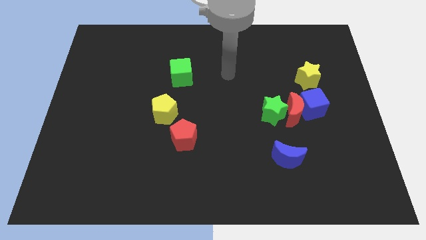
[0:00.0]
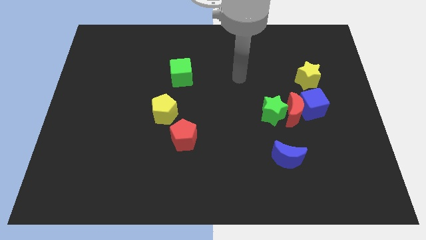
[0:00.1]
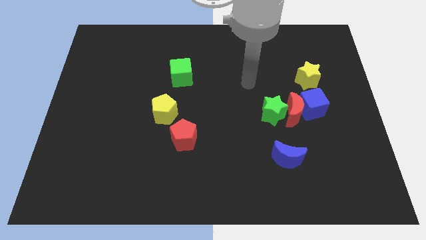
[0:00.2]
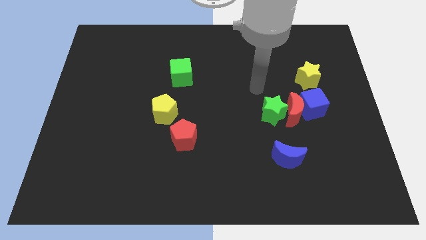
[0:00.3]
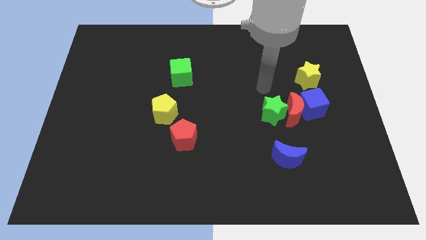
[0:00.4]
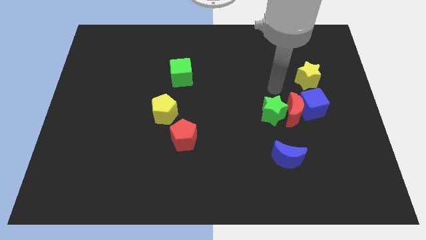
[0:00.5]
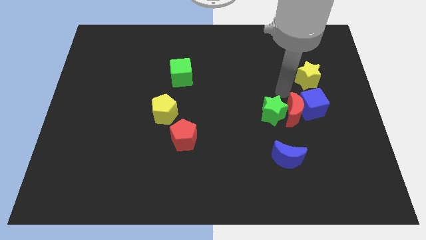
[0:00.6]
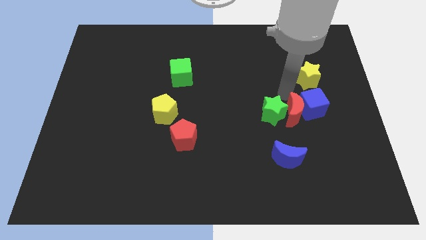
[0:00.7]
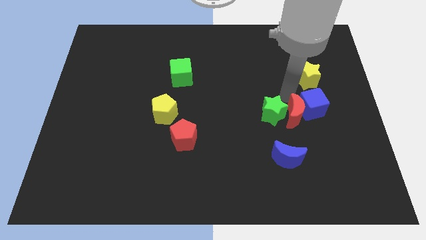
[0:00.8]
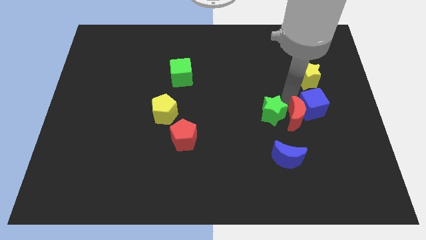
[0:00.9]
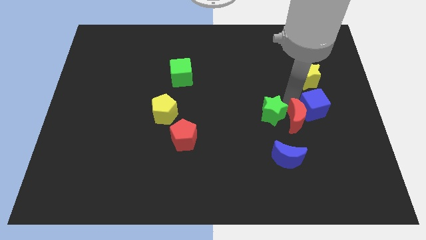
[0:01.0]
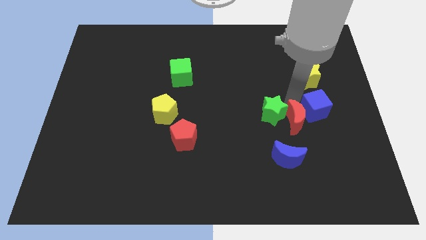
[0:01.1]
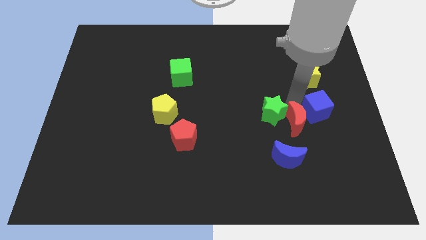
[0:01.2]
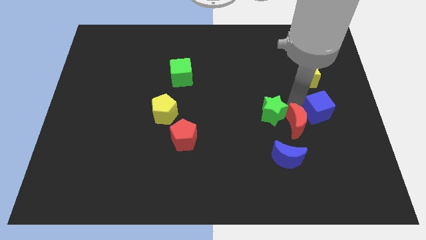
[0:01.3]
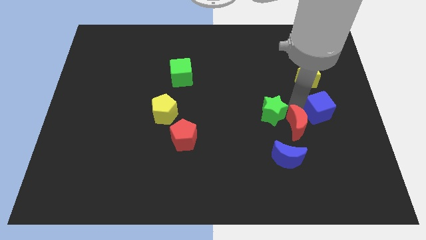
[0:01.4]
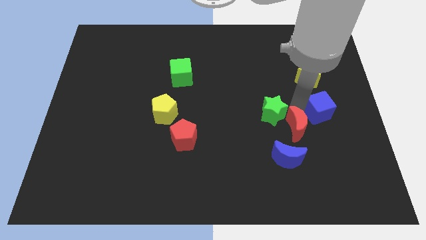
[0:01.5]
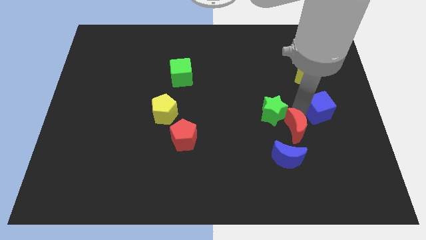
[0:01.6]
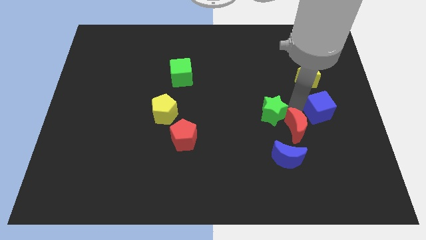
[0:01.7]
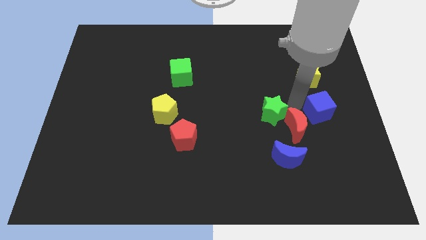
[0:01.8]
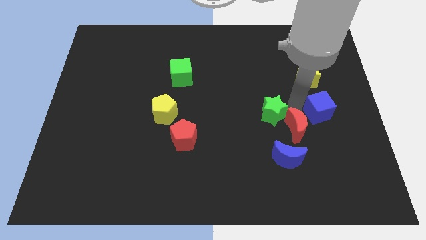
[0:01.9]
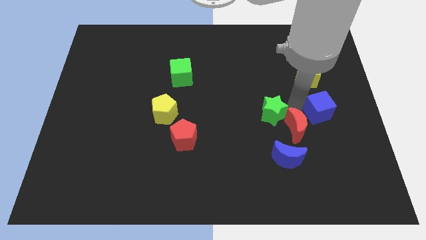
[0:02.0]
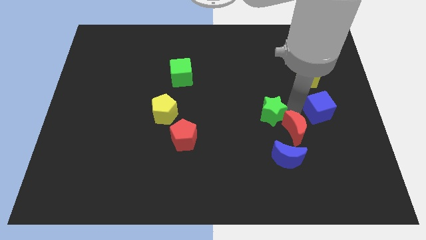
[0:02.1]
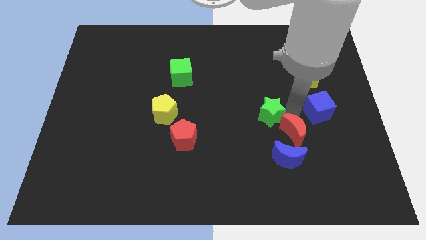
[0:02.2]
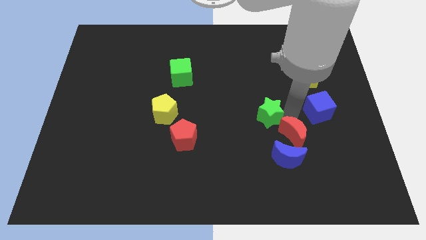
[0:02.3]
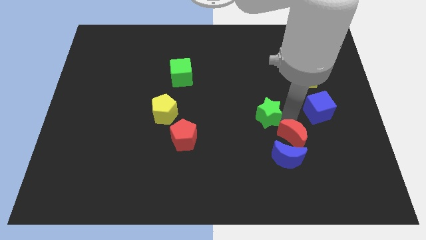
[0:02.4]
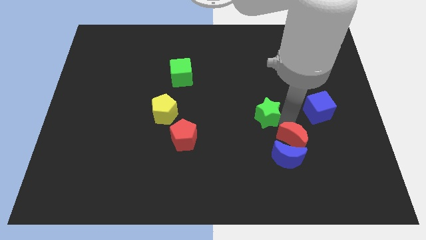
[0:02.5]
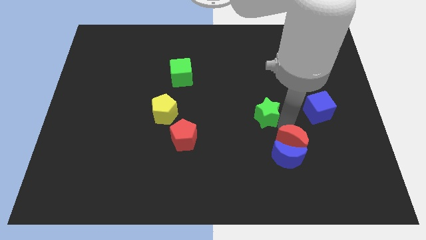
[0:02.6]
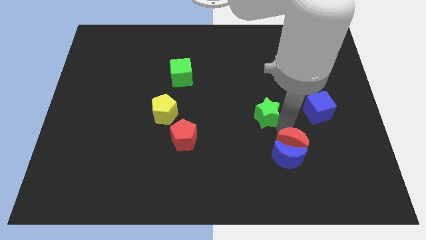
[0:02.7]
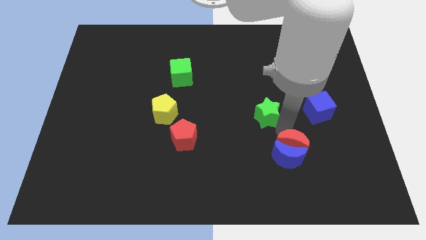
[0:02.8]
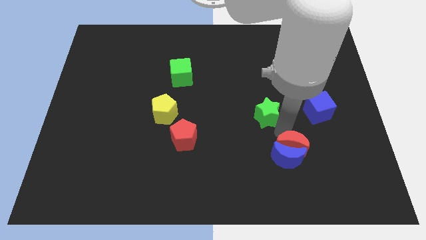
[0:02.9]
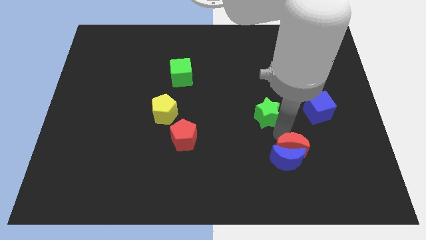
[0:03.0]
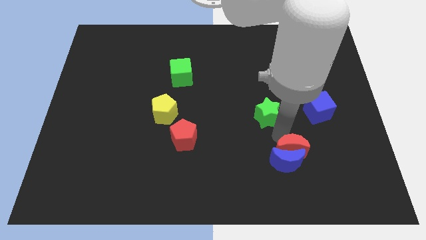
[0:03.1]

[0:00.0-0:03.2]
pull the red moon apart from the blue cube and green star

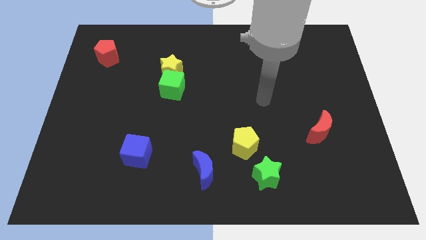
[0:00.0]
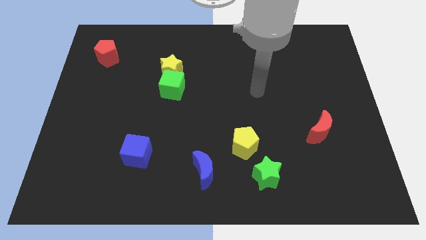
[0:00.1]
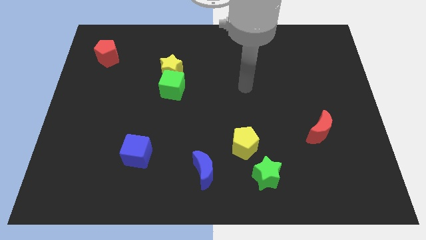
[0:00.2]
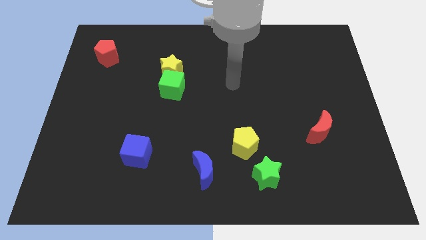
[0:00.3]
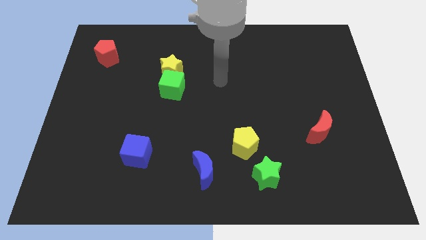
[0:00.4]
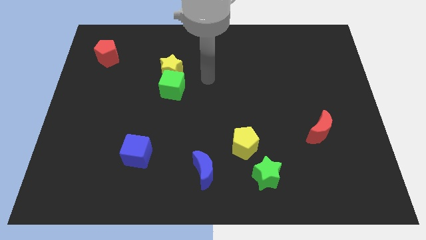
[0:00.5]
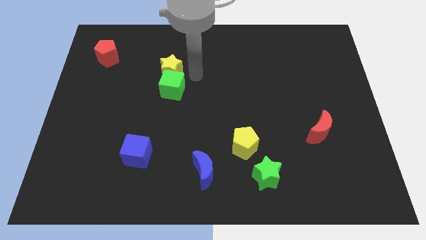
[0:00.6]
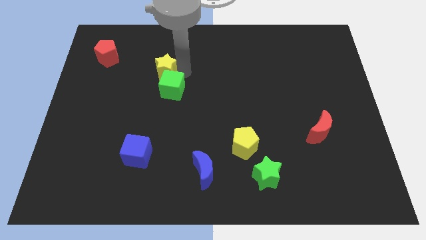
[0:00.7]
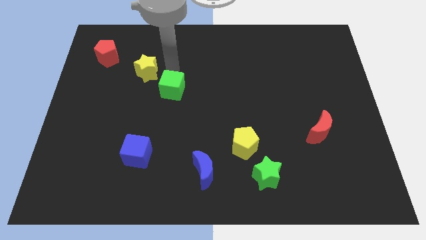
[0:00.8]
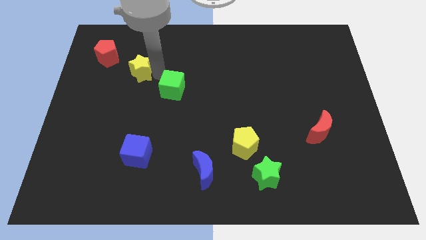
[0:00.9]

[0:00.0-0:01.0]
pull the green cube apart from the yellow star

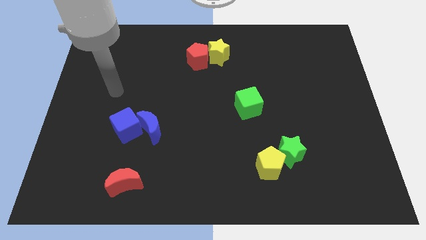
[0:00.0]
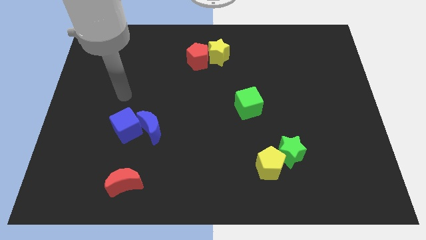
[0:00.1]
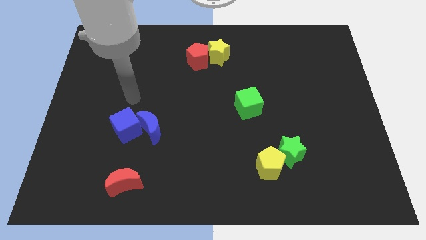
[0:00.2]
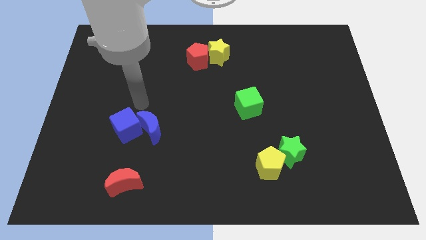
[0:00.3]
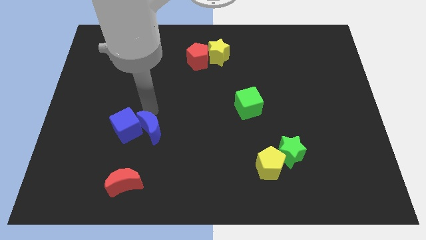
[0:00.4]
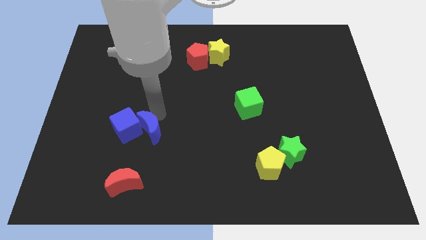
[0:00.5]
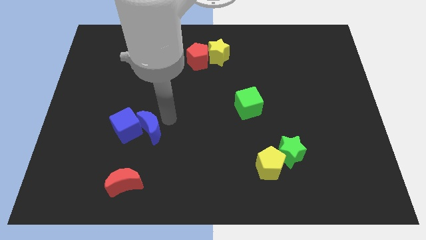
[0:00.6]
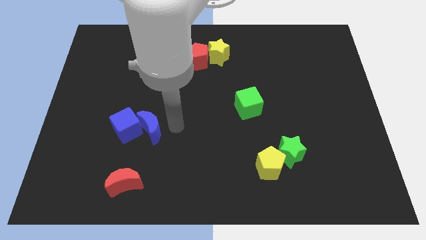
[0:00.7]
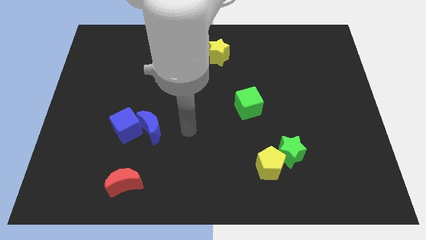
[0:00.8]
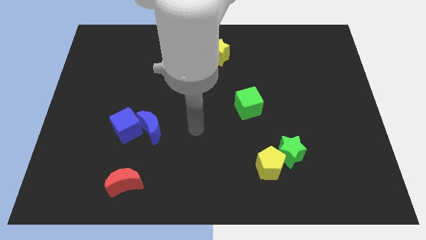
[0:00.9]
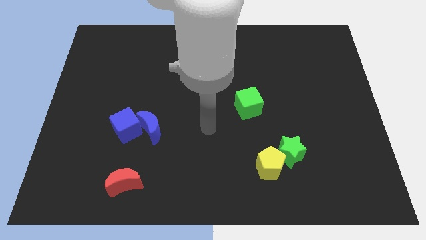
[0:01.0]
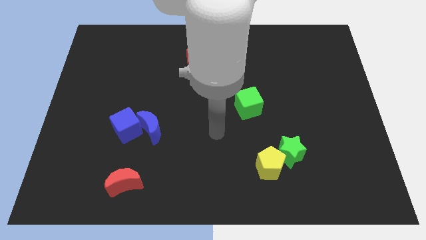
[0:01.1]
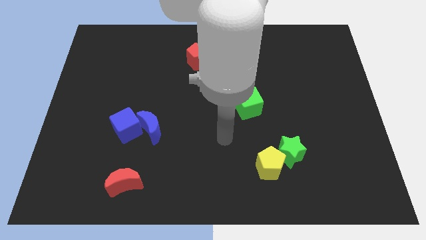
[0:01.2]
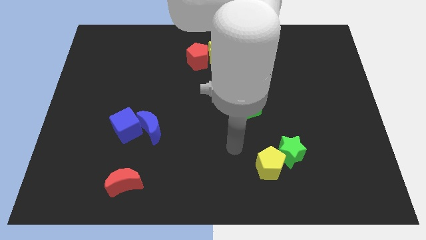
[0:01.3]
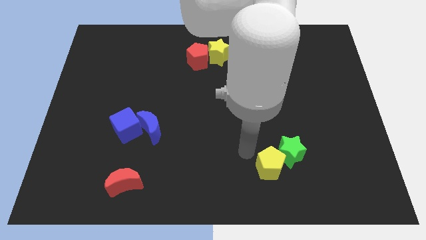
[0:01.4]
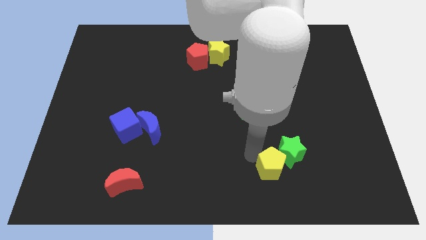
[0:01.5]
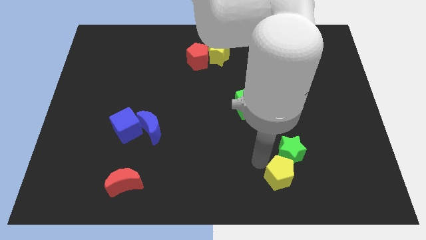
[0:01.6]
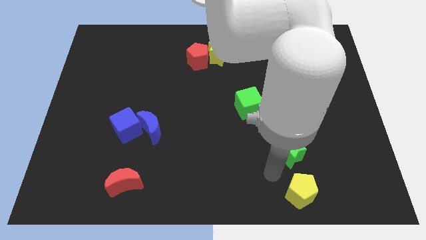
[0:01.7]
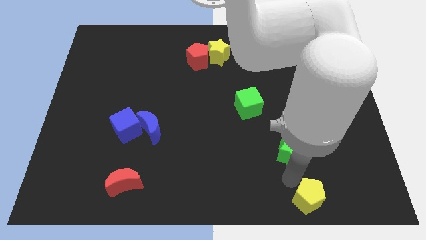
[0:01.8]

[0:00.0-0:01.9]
pull the green star apart from the yellow pentagon

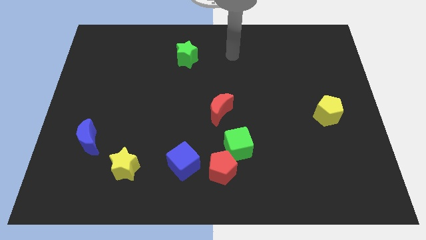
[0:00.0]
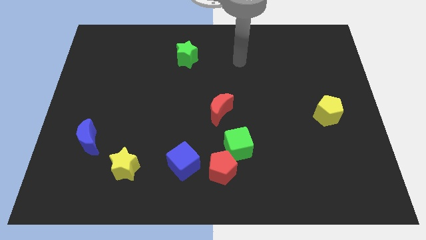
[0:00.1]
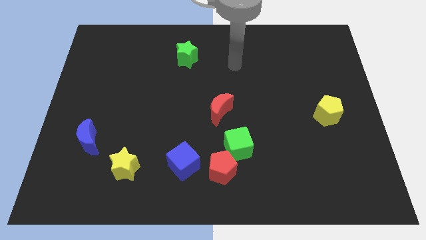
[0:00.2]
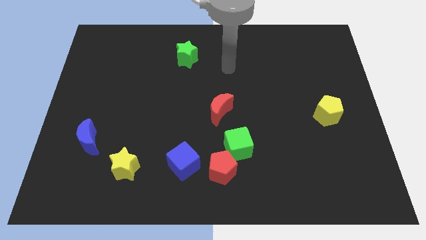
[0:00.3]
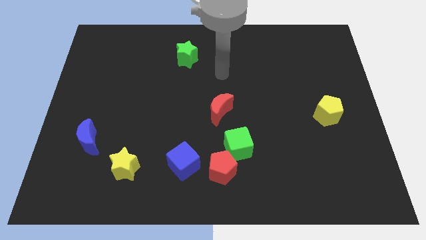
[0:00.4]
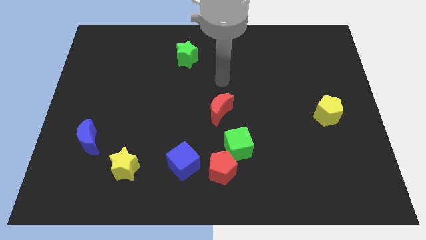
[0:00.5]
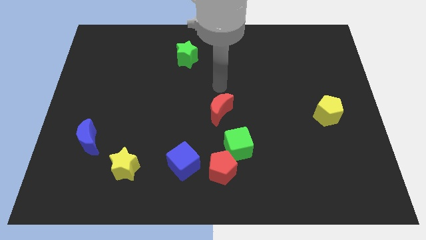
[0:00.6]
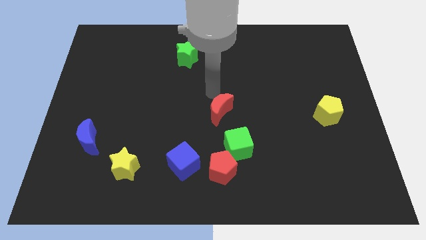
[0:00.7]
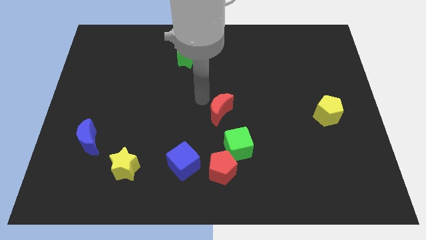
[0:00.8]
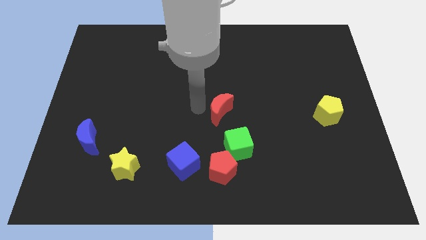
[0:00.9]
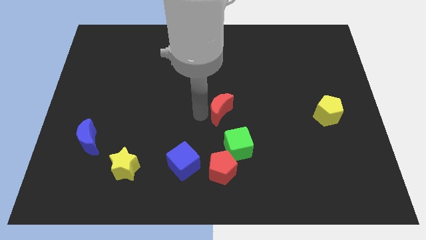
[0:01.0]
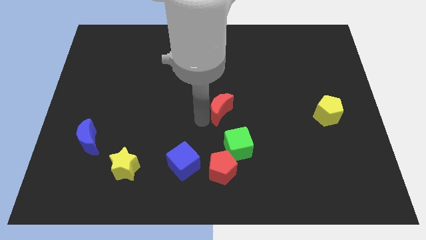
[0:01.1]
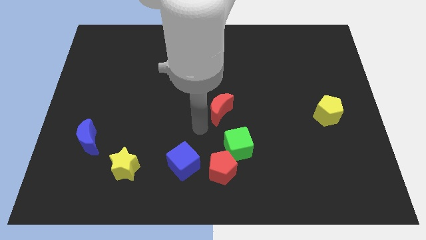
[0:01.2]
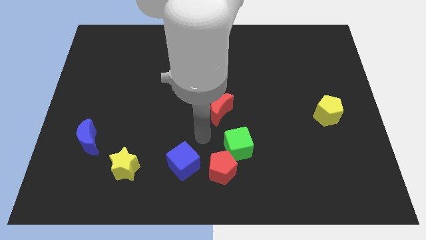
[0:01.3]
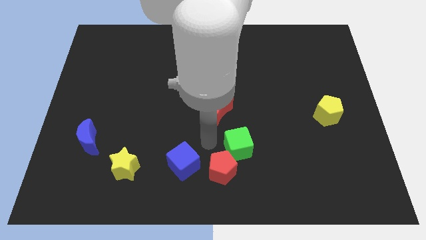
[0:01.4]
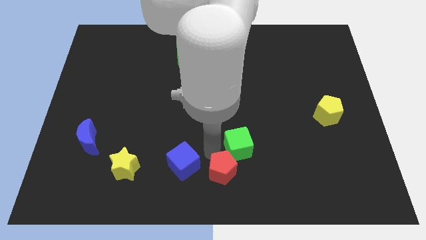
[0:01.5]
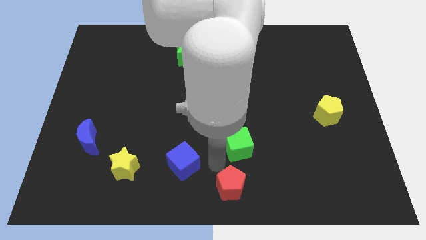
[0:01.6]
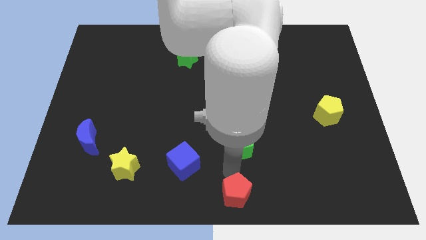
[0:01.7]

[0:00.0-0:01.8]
move the green cube away from the red pentagon

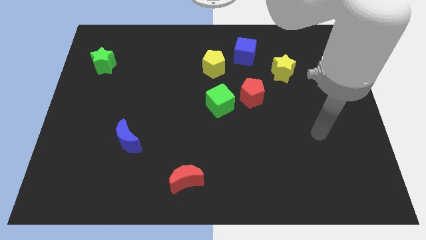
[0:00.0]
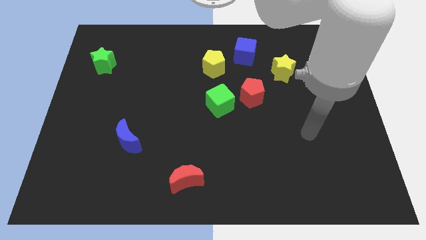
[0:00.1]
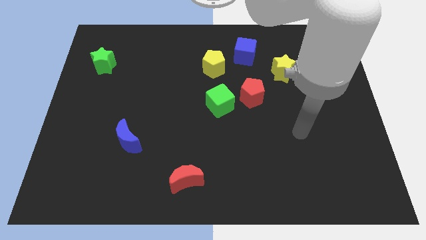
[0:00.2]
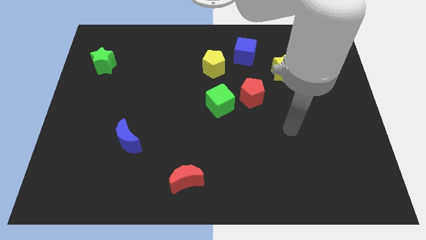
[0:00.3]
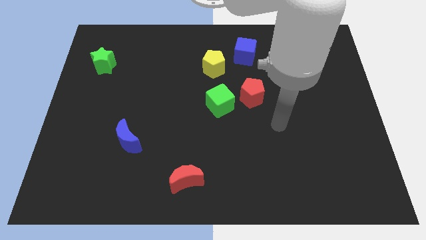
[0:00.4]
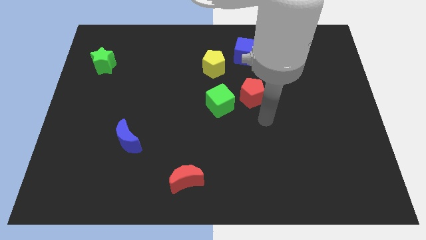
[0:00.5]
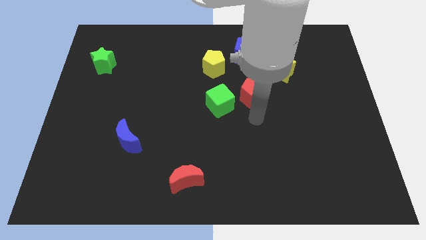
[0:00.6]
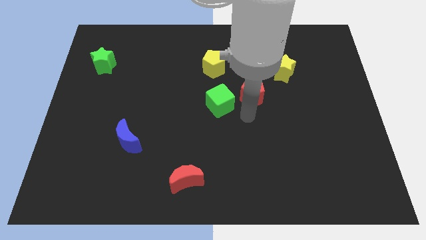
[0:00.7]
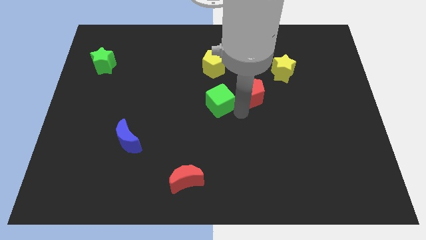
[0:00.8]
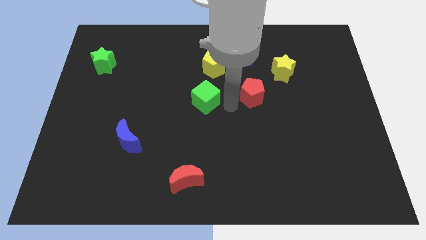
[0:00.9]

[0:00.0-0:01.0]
pull the red pentagon apart from the green cube

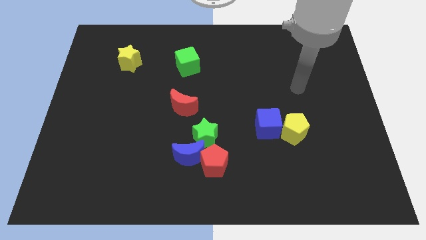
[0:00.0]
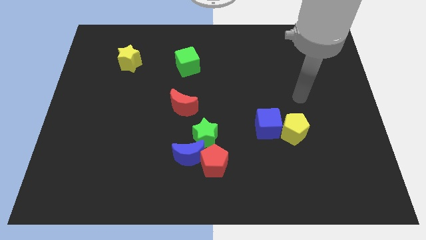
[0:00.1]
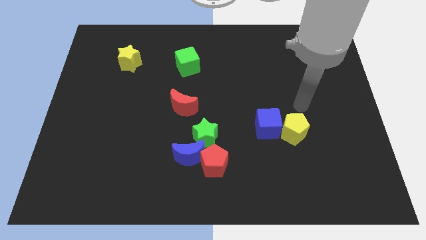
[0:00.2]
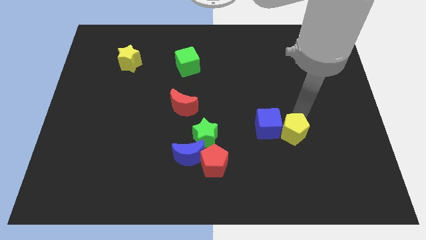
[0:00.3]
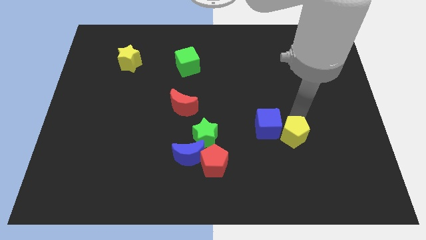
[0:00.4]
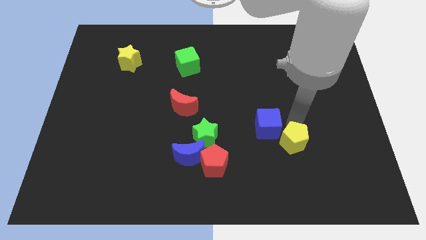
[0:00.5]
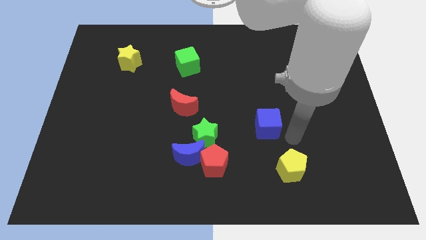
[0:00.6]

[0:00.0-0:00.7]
move the blue cube away from the yellow pentagon
